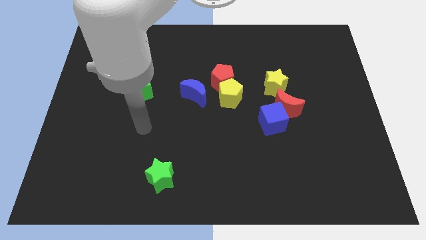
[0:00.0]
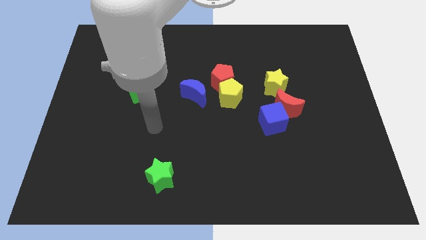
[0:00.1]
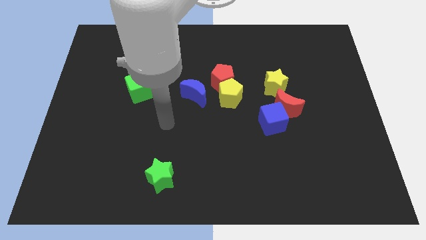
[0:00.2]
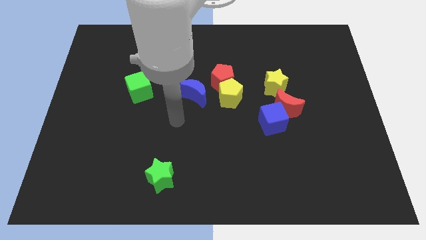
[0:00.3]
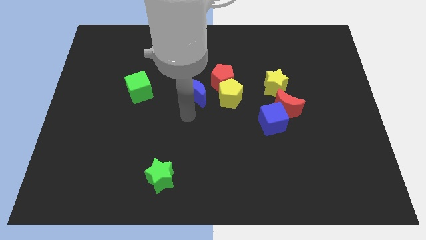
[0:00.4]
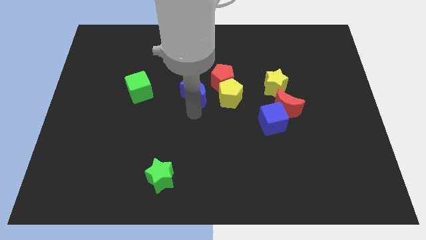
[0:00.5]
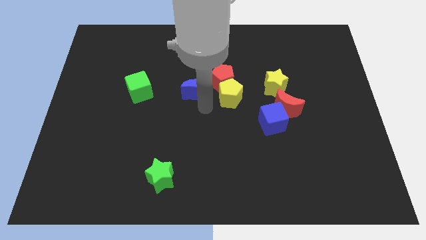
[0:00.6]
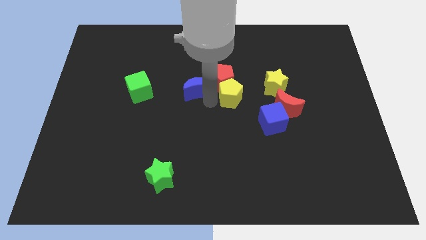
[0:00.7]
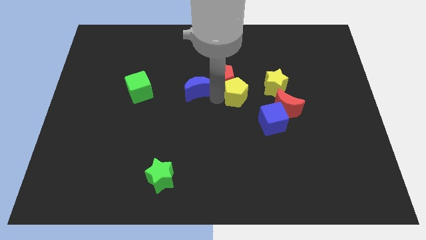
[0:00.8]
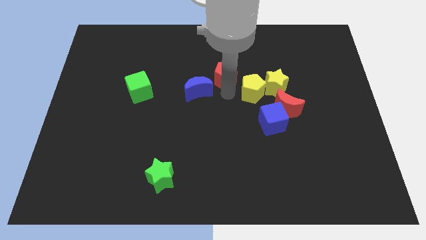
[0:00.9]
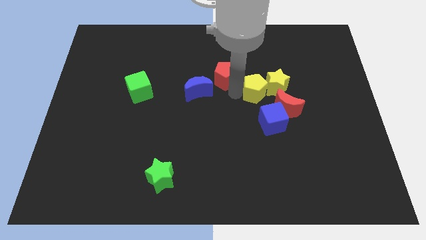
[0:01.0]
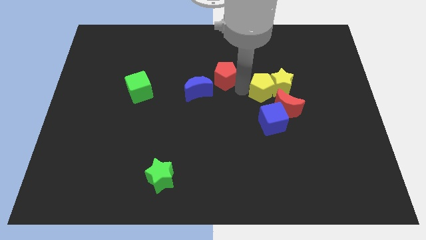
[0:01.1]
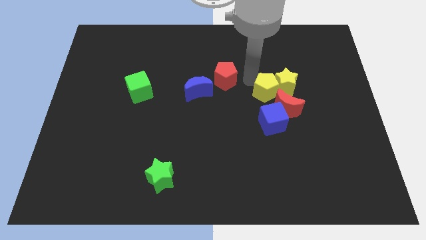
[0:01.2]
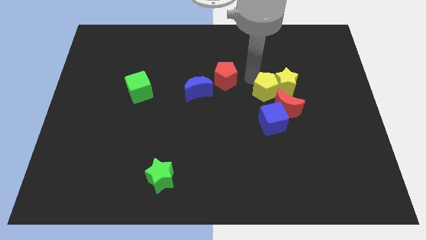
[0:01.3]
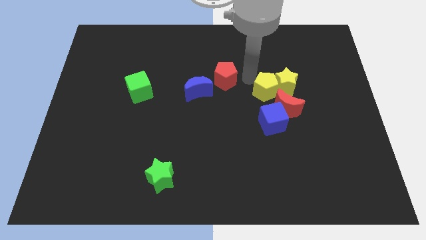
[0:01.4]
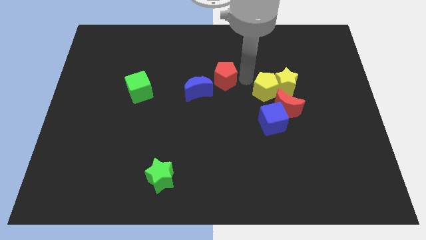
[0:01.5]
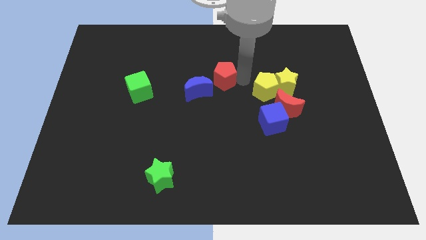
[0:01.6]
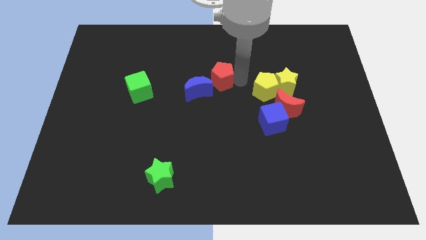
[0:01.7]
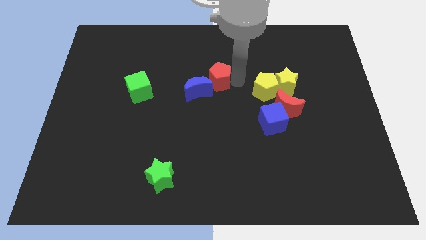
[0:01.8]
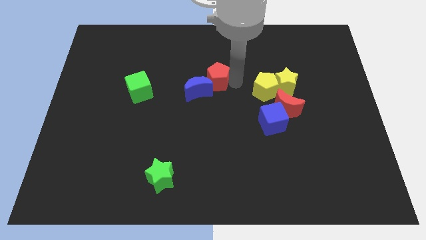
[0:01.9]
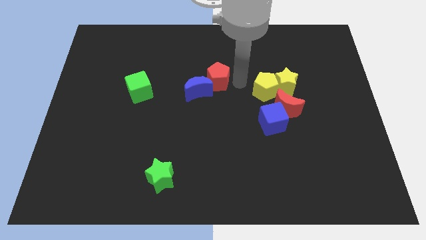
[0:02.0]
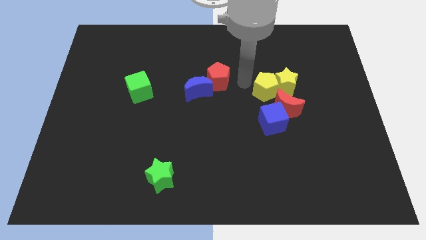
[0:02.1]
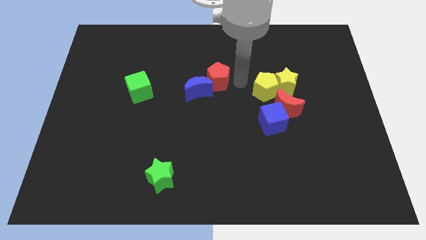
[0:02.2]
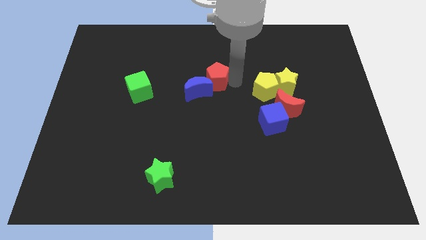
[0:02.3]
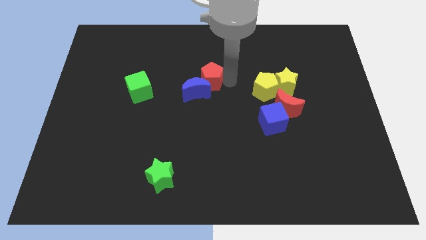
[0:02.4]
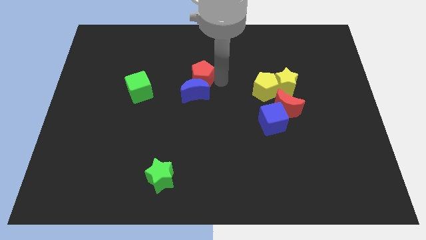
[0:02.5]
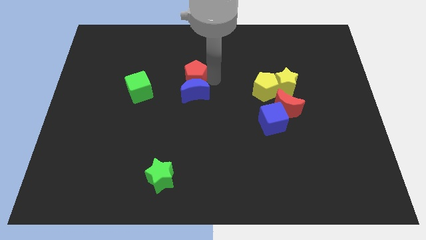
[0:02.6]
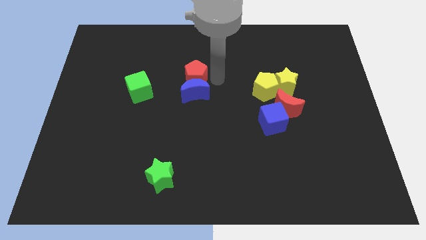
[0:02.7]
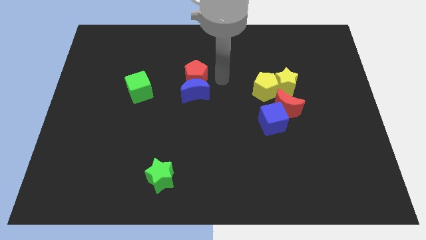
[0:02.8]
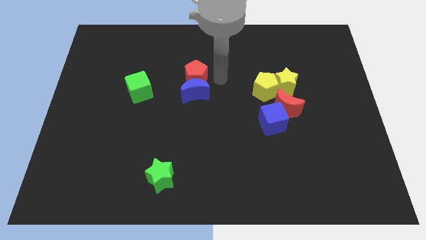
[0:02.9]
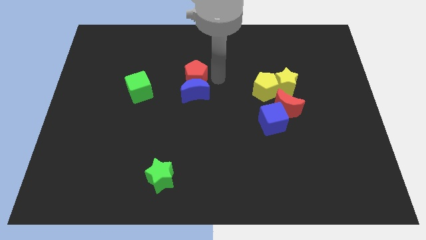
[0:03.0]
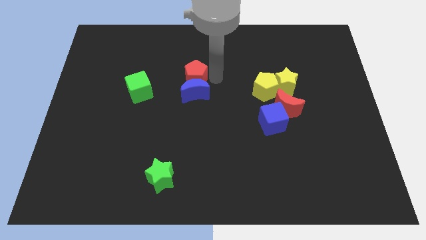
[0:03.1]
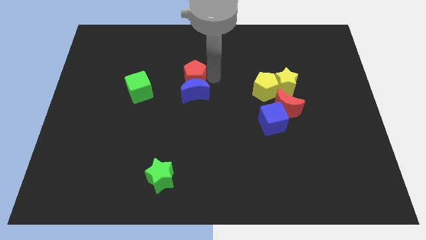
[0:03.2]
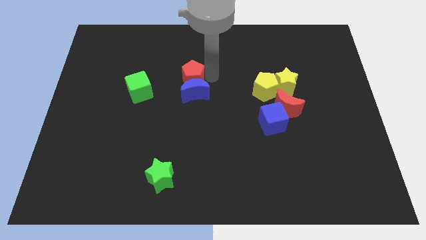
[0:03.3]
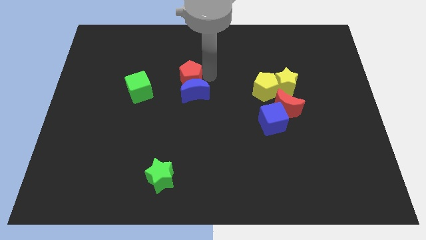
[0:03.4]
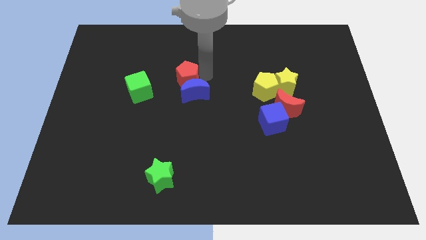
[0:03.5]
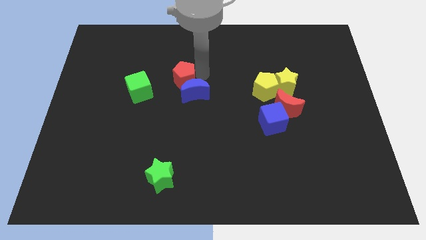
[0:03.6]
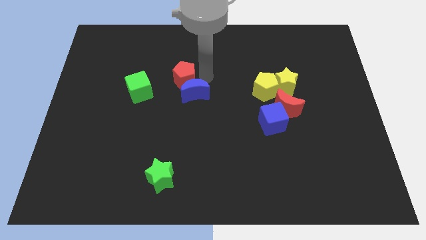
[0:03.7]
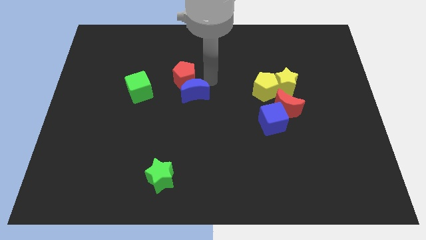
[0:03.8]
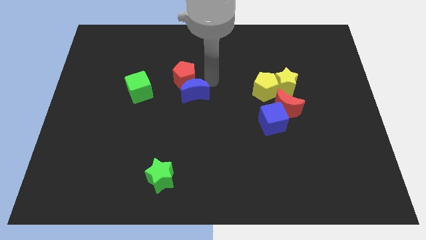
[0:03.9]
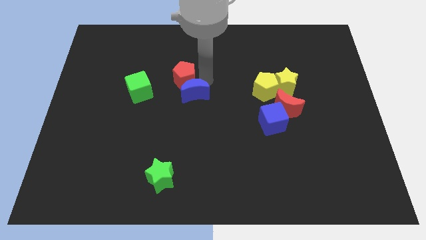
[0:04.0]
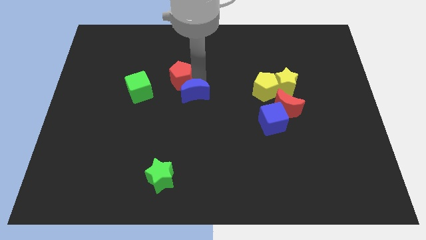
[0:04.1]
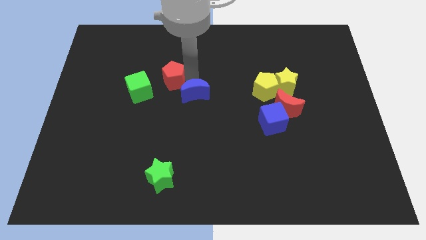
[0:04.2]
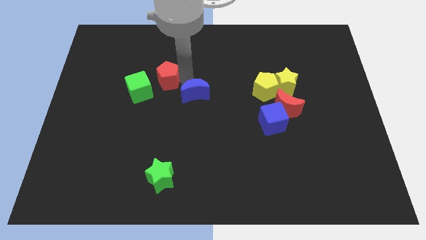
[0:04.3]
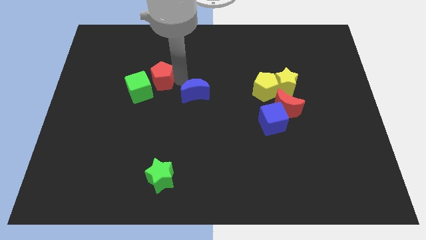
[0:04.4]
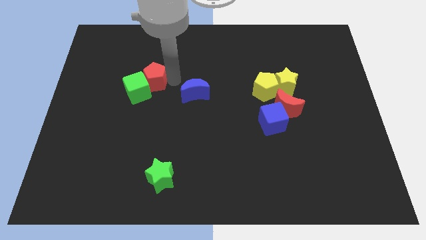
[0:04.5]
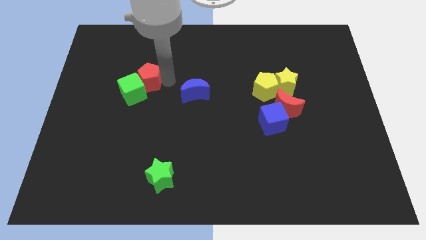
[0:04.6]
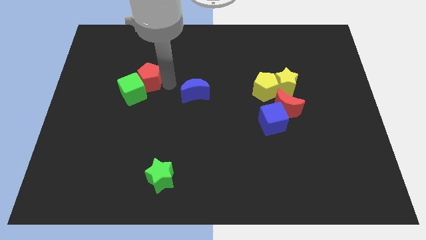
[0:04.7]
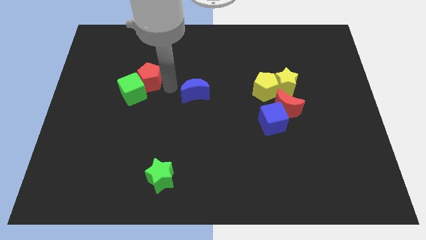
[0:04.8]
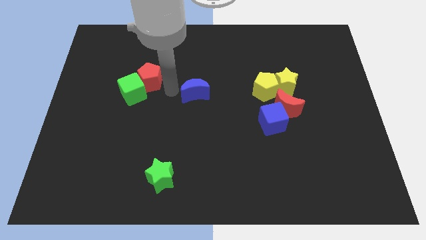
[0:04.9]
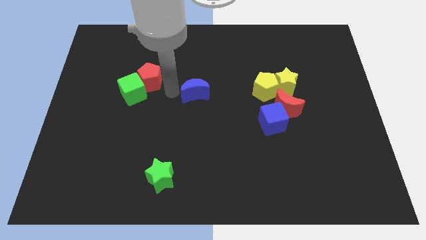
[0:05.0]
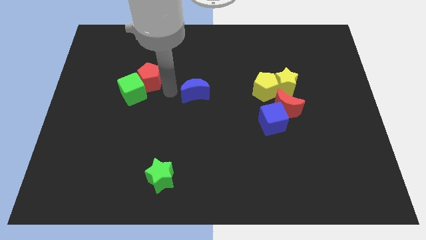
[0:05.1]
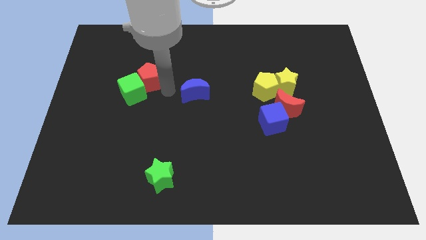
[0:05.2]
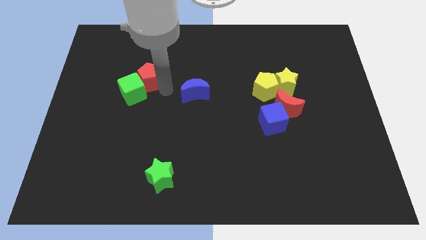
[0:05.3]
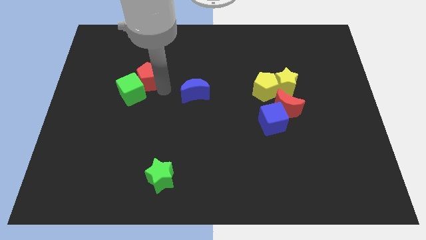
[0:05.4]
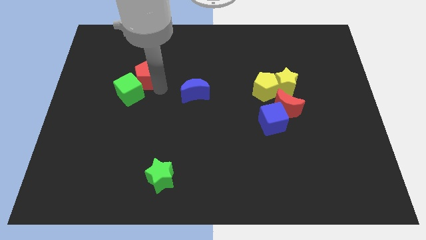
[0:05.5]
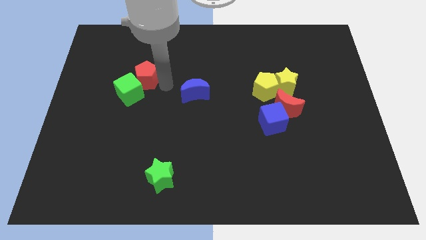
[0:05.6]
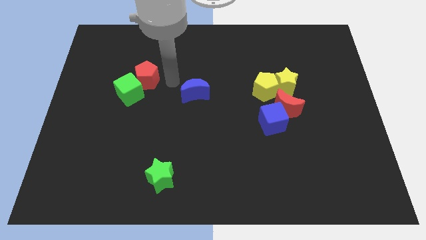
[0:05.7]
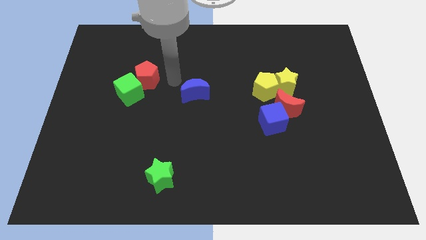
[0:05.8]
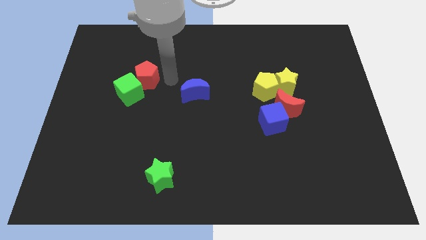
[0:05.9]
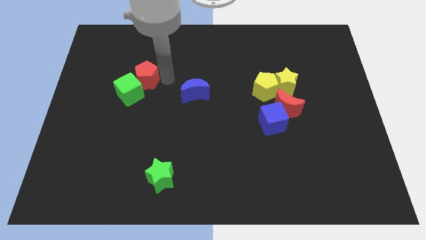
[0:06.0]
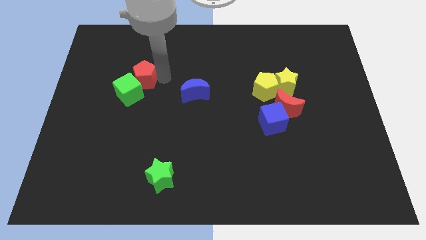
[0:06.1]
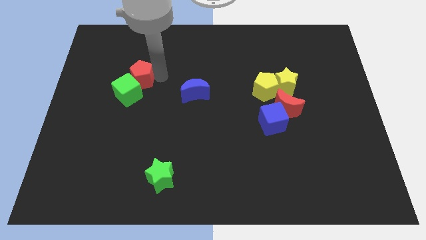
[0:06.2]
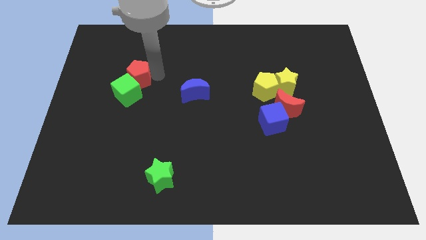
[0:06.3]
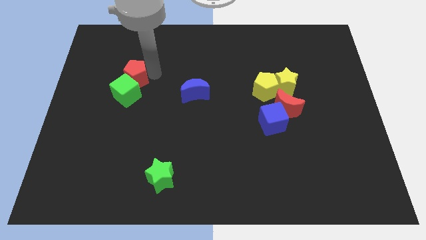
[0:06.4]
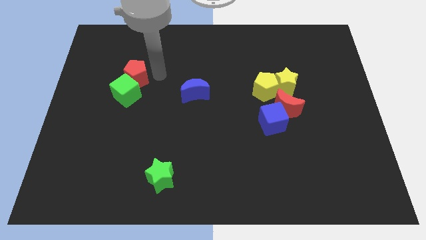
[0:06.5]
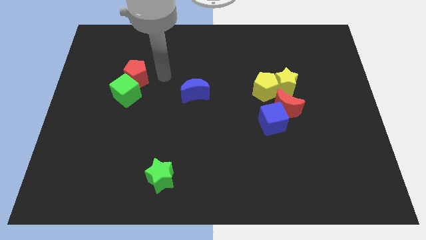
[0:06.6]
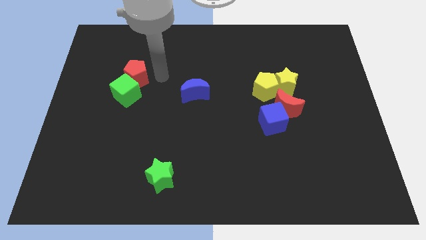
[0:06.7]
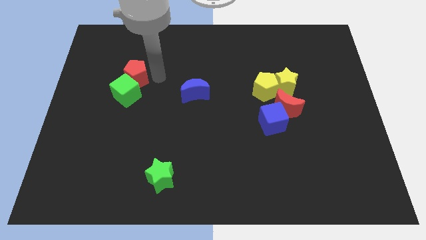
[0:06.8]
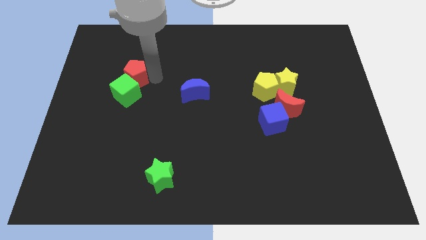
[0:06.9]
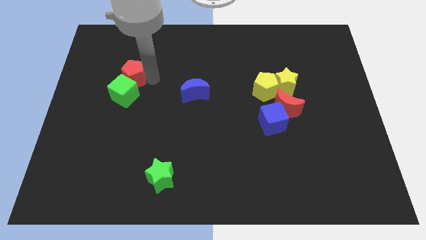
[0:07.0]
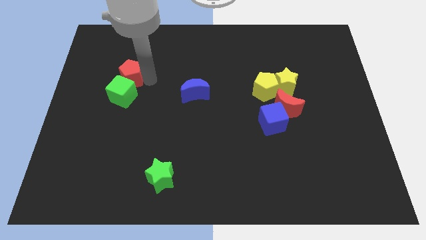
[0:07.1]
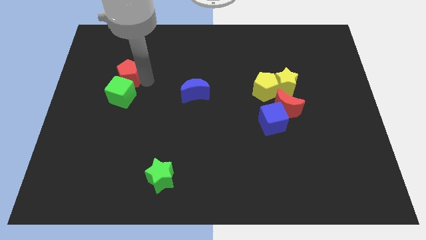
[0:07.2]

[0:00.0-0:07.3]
move the red pentagon to the top left of the green cube
